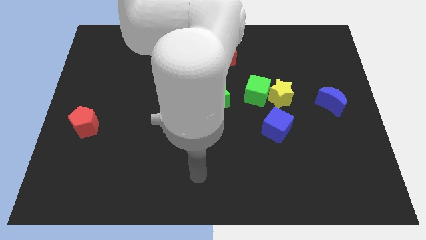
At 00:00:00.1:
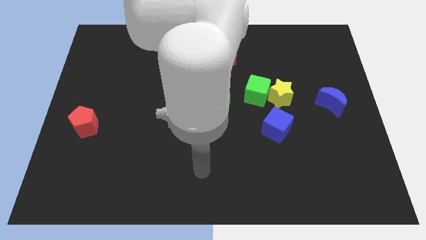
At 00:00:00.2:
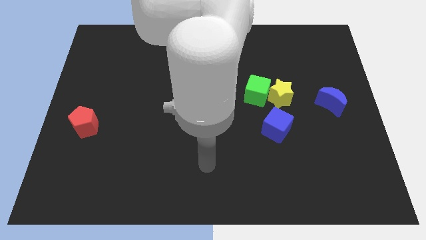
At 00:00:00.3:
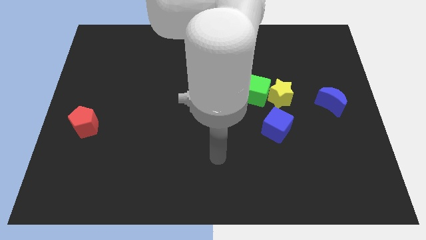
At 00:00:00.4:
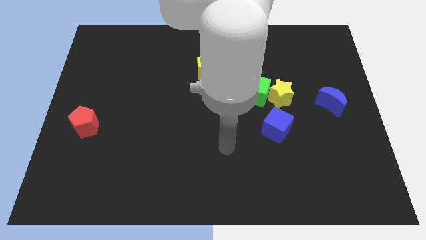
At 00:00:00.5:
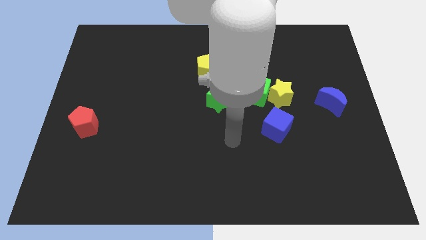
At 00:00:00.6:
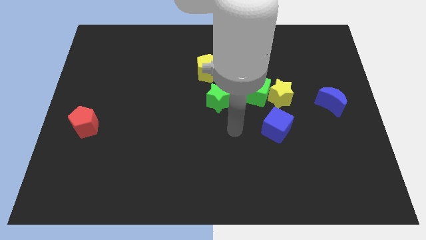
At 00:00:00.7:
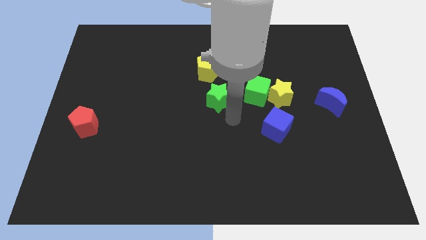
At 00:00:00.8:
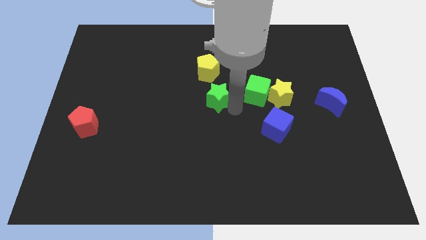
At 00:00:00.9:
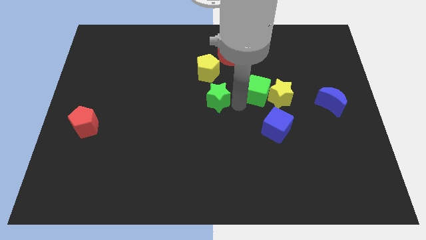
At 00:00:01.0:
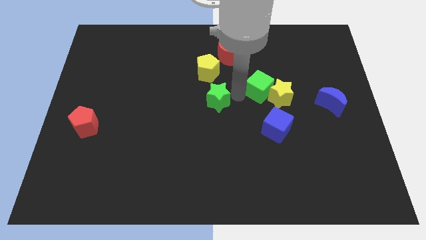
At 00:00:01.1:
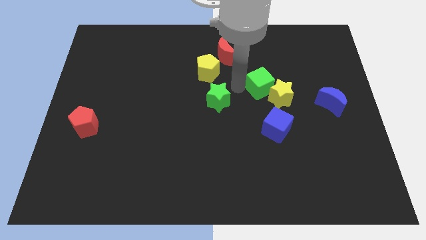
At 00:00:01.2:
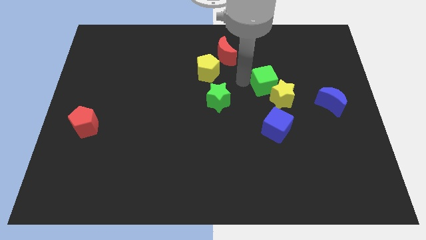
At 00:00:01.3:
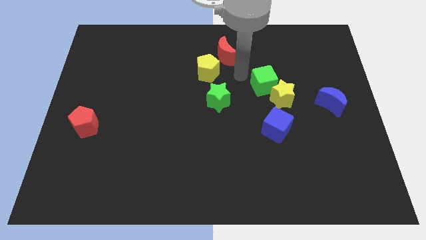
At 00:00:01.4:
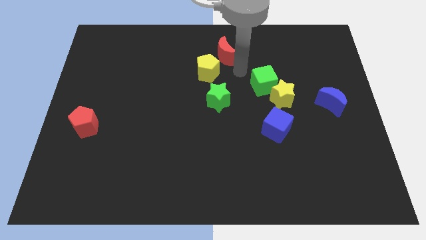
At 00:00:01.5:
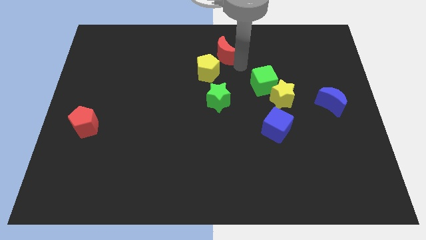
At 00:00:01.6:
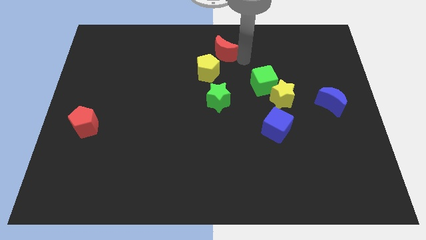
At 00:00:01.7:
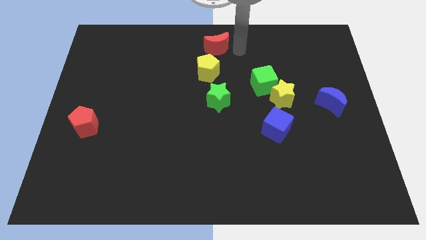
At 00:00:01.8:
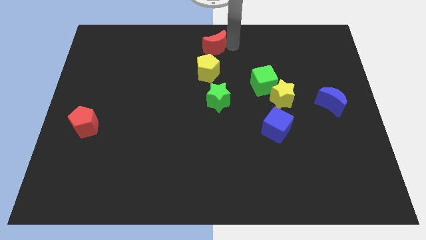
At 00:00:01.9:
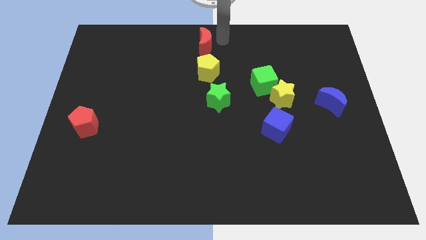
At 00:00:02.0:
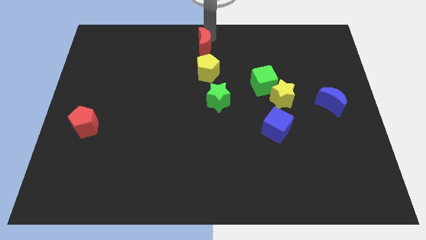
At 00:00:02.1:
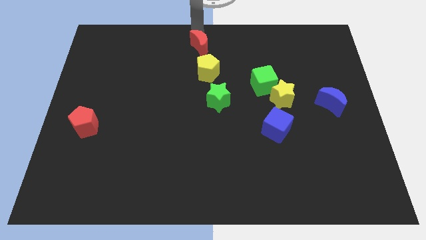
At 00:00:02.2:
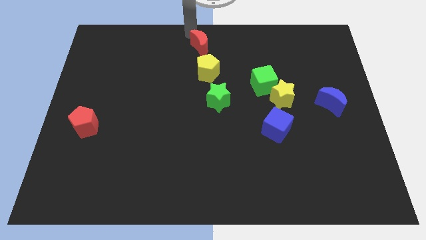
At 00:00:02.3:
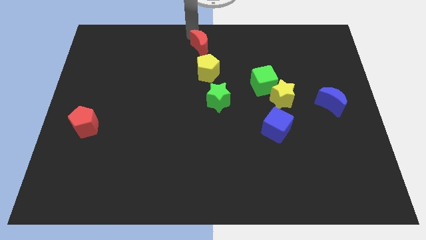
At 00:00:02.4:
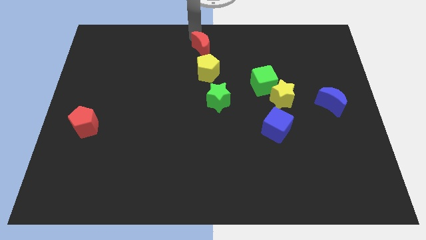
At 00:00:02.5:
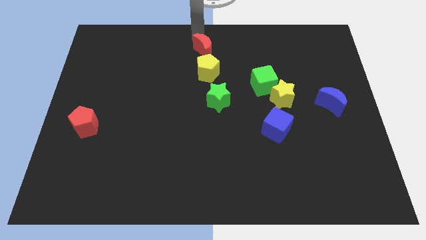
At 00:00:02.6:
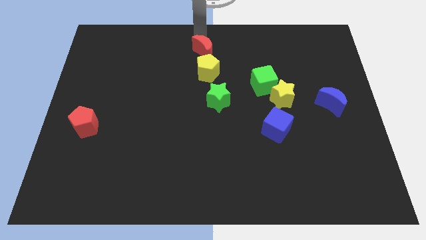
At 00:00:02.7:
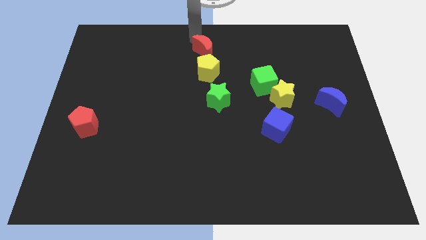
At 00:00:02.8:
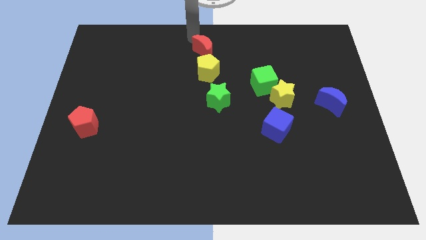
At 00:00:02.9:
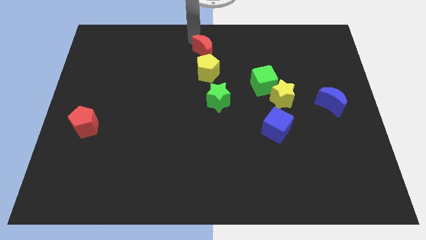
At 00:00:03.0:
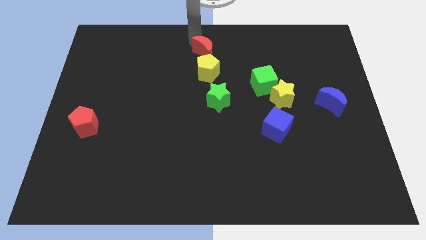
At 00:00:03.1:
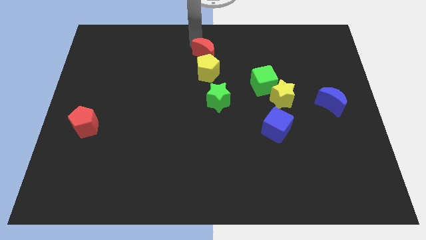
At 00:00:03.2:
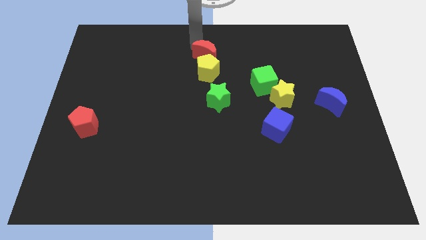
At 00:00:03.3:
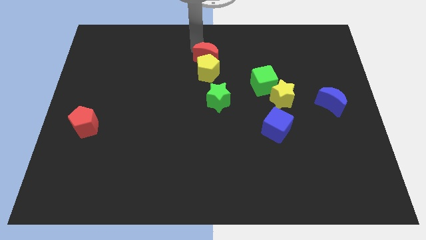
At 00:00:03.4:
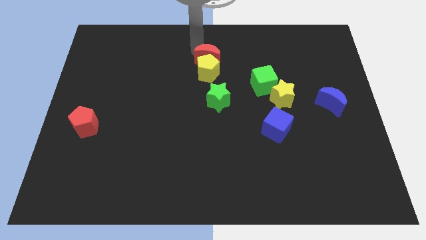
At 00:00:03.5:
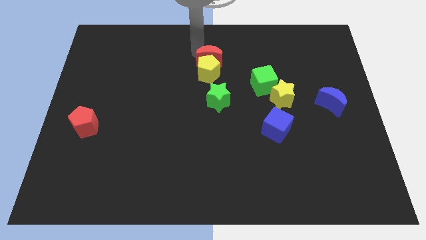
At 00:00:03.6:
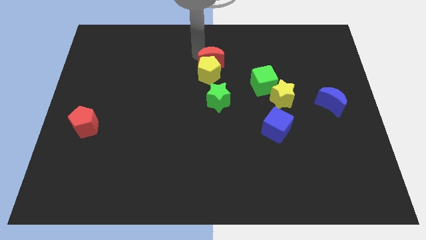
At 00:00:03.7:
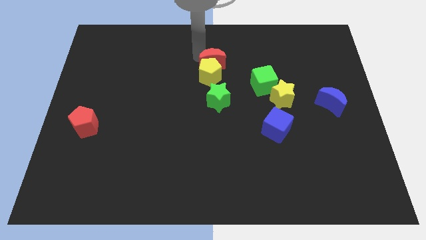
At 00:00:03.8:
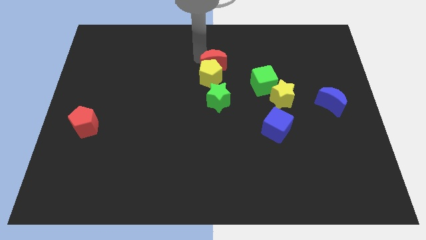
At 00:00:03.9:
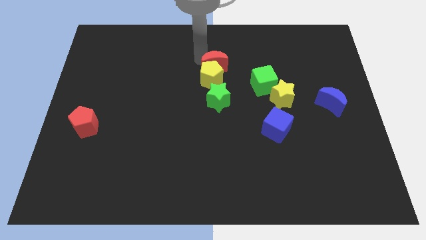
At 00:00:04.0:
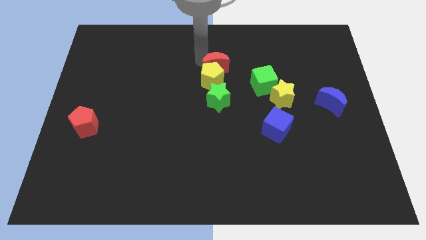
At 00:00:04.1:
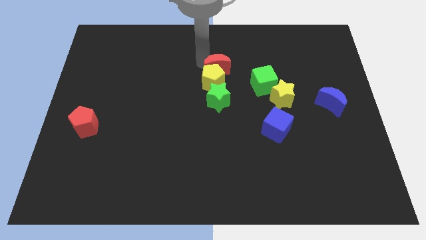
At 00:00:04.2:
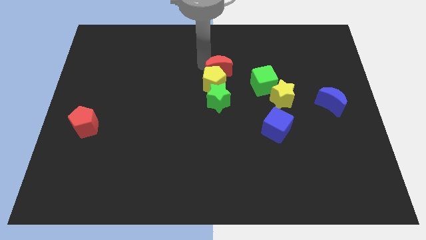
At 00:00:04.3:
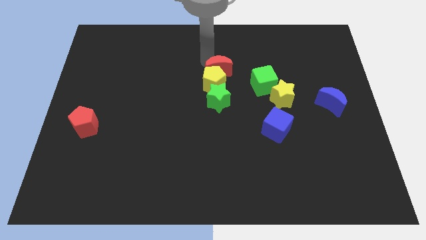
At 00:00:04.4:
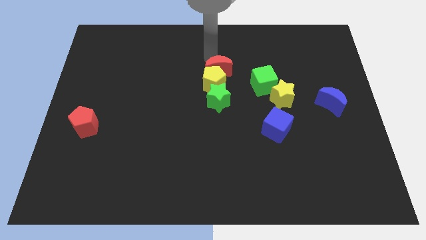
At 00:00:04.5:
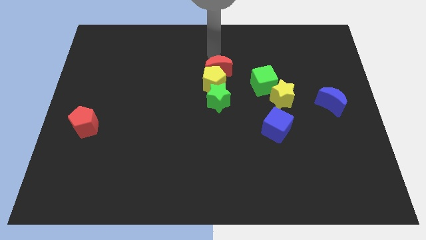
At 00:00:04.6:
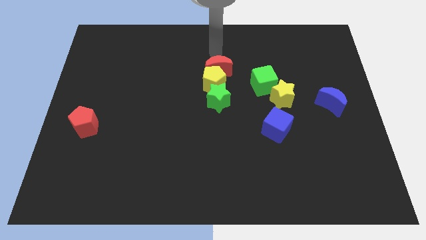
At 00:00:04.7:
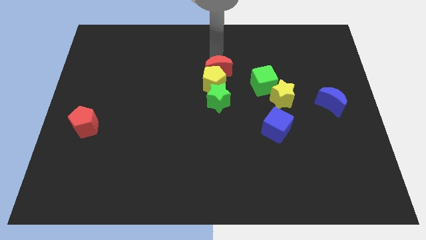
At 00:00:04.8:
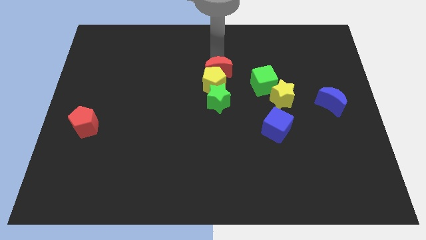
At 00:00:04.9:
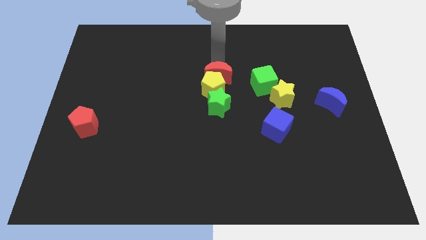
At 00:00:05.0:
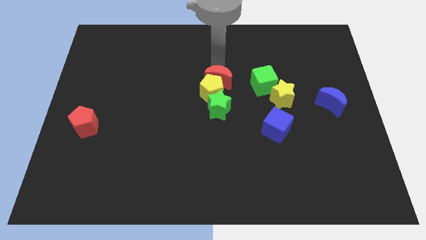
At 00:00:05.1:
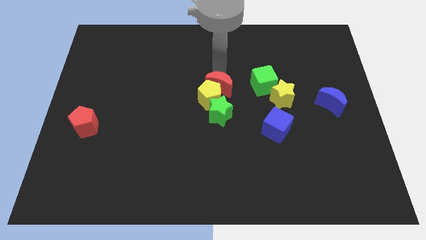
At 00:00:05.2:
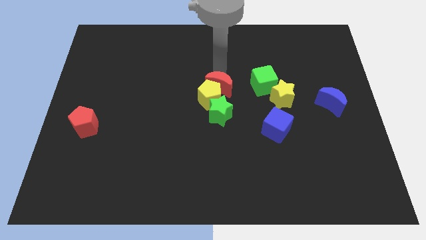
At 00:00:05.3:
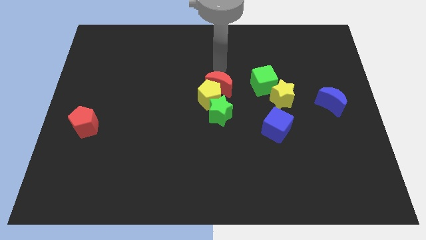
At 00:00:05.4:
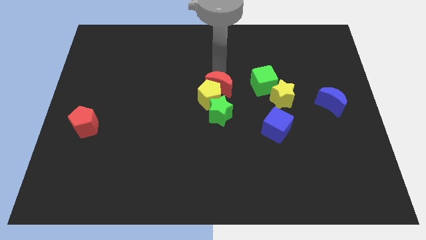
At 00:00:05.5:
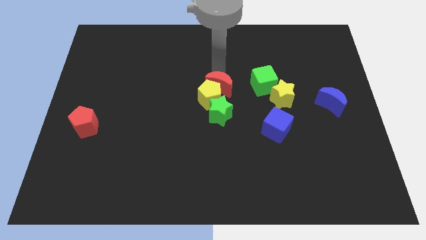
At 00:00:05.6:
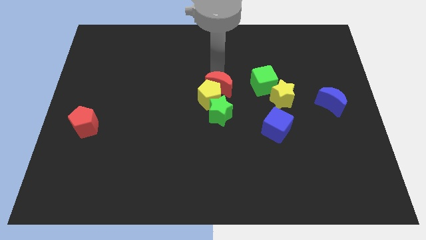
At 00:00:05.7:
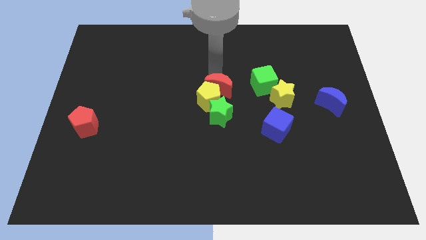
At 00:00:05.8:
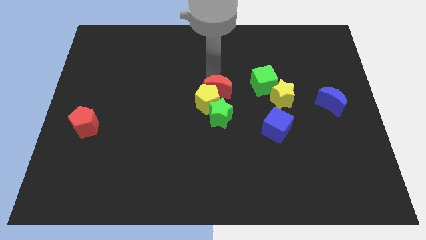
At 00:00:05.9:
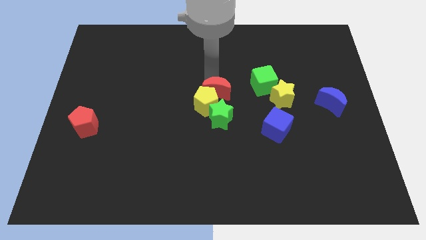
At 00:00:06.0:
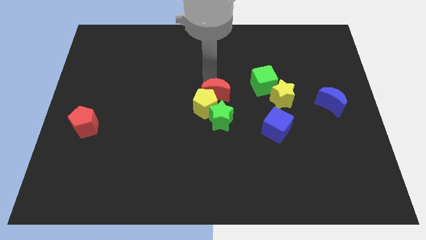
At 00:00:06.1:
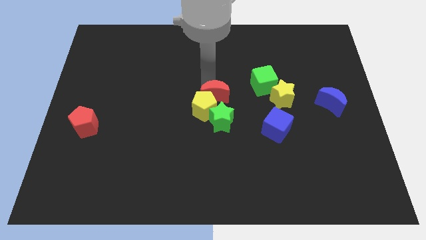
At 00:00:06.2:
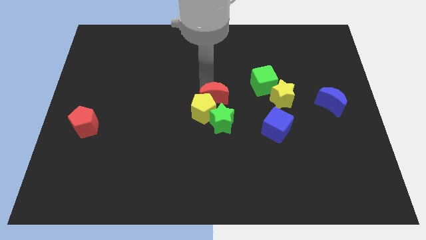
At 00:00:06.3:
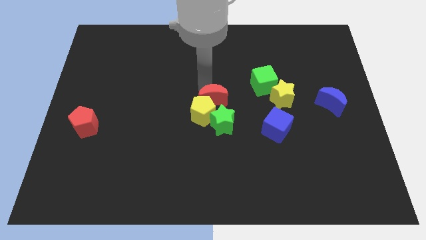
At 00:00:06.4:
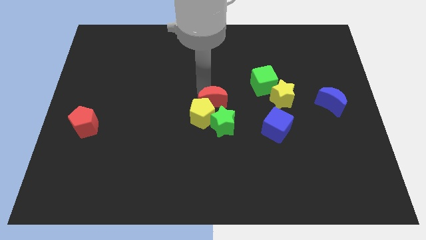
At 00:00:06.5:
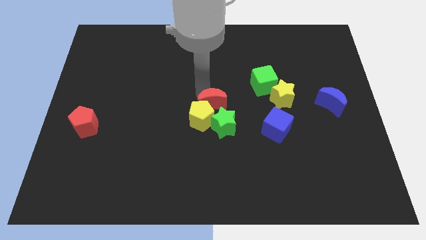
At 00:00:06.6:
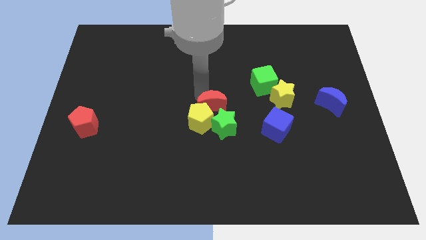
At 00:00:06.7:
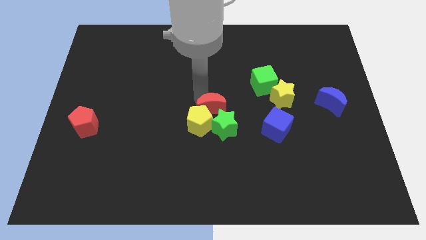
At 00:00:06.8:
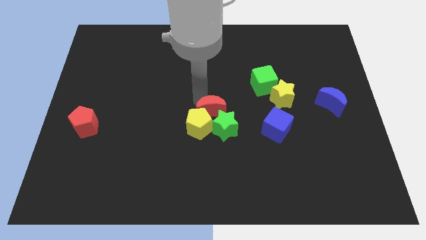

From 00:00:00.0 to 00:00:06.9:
move the red moon towards the green star

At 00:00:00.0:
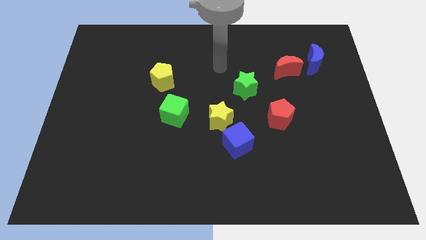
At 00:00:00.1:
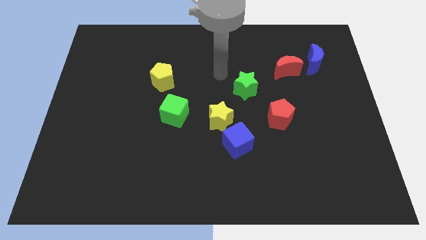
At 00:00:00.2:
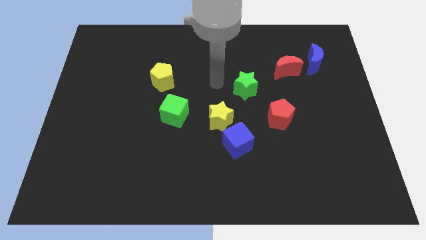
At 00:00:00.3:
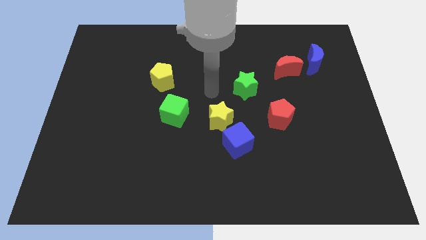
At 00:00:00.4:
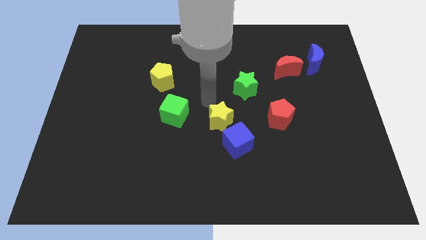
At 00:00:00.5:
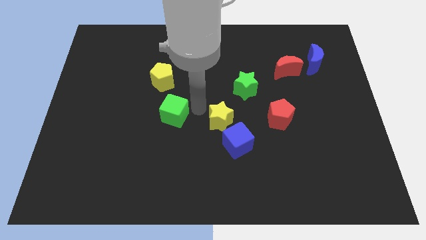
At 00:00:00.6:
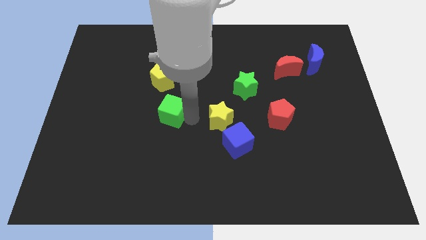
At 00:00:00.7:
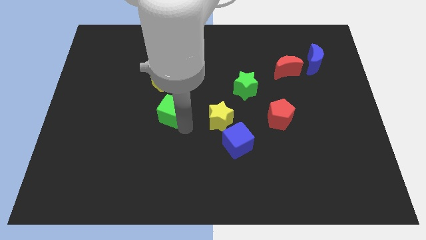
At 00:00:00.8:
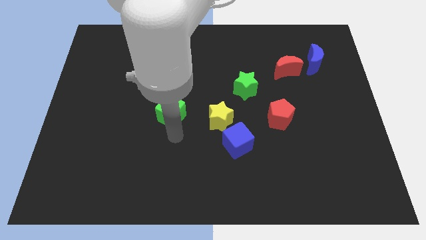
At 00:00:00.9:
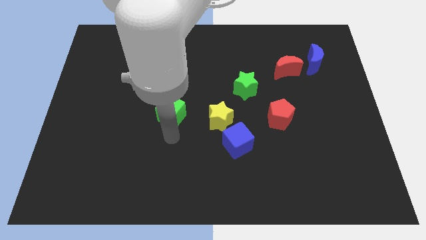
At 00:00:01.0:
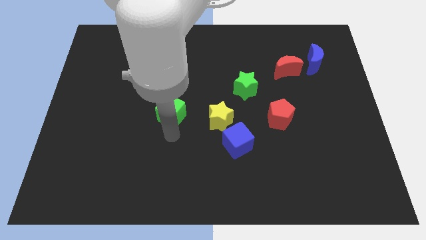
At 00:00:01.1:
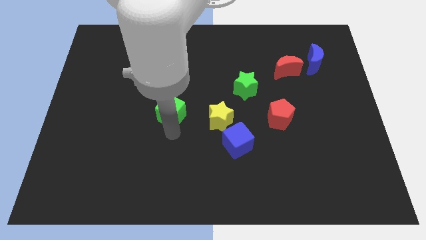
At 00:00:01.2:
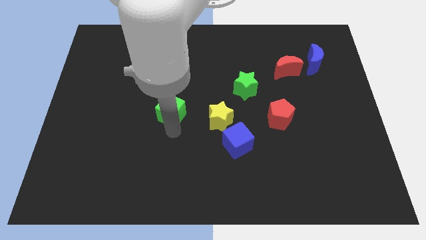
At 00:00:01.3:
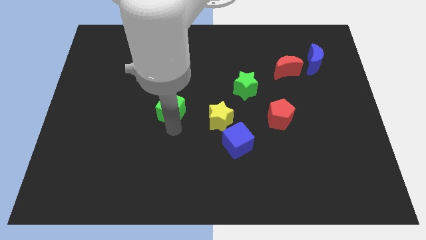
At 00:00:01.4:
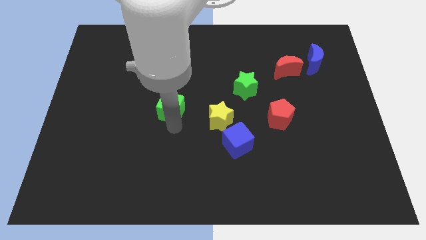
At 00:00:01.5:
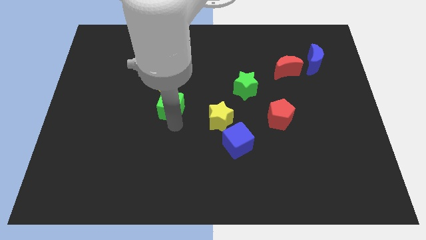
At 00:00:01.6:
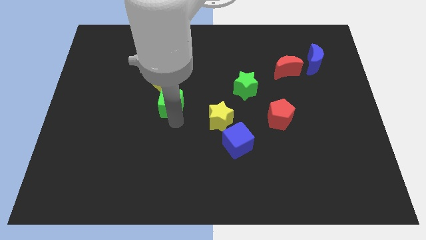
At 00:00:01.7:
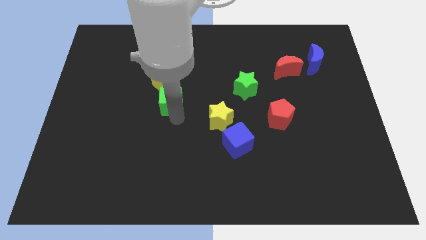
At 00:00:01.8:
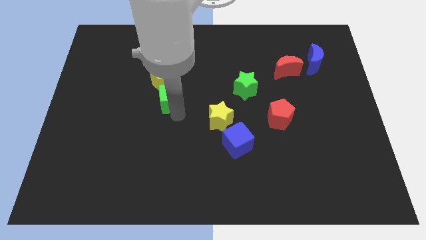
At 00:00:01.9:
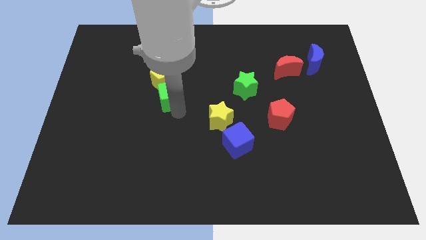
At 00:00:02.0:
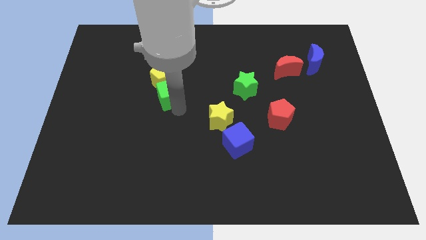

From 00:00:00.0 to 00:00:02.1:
put the green cube towards the yellow pentagon
